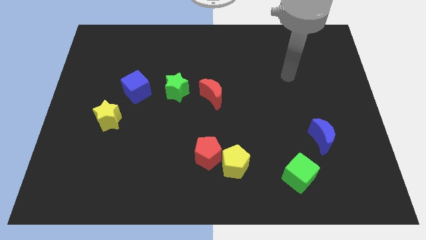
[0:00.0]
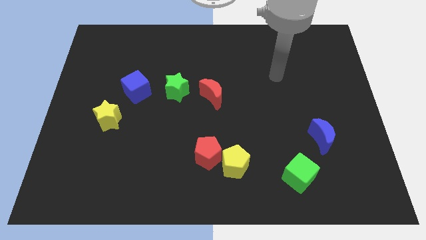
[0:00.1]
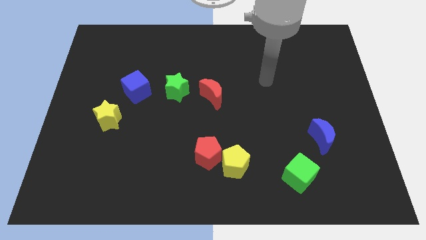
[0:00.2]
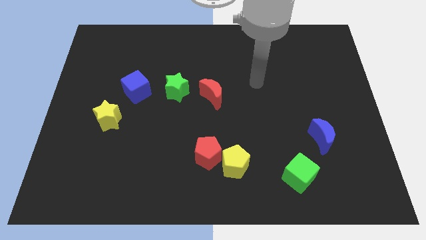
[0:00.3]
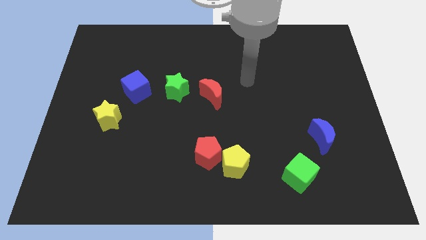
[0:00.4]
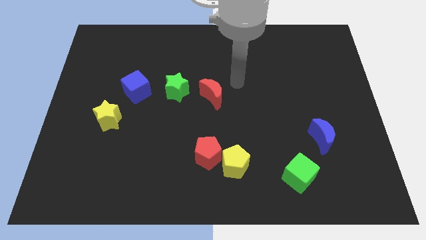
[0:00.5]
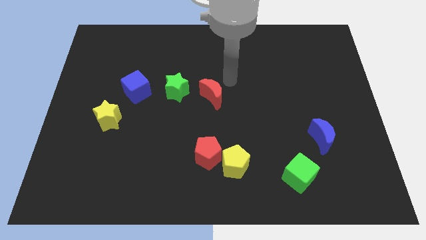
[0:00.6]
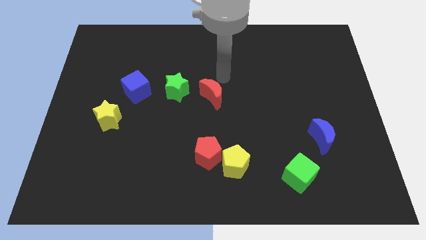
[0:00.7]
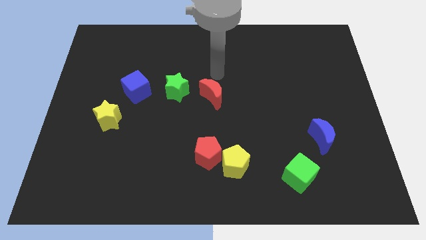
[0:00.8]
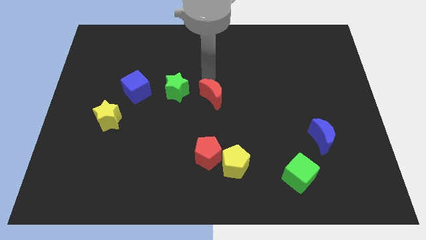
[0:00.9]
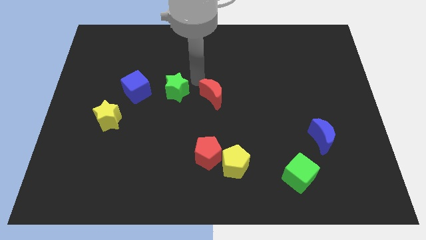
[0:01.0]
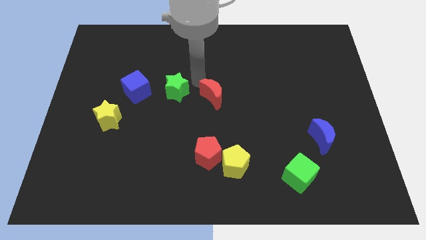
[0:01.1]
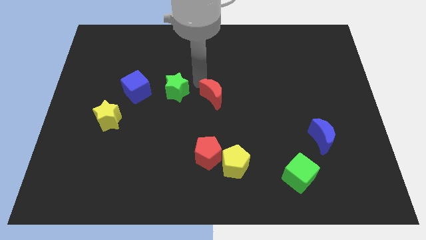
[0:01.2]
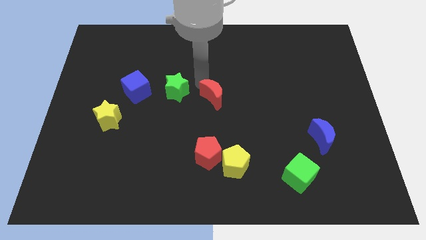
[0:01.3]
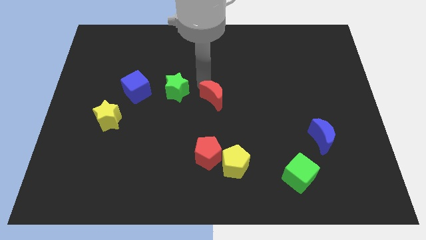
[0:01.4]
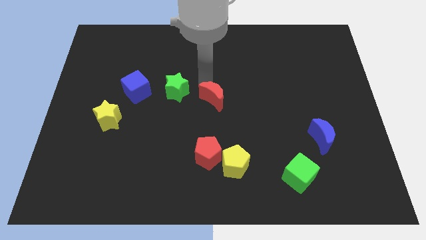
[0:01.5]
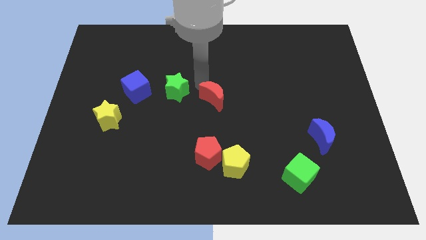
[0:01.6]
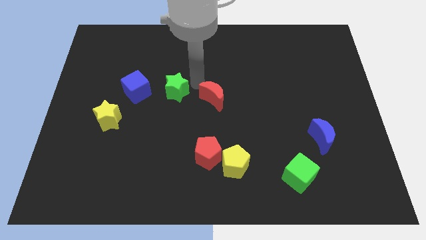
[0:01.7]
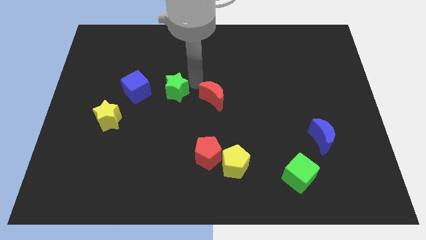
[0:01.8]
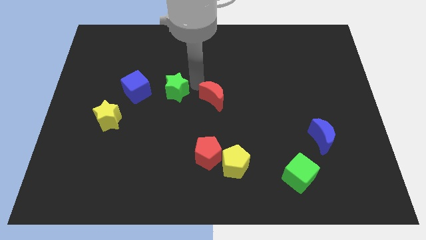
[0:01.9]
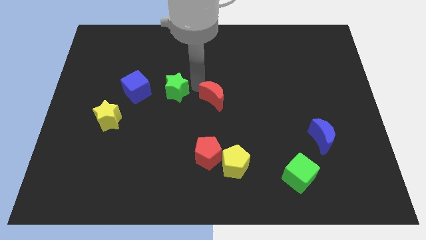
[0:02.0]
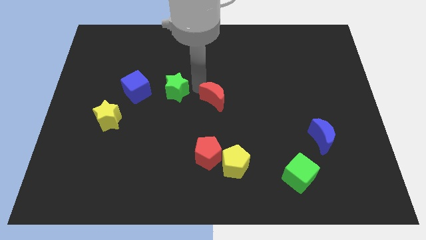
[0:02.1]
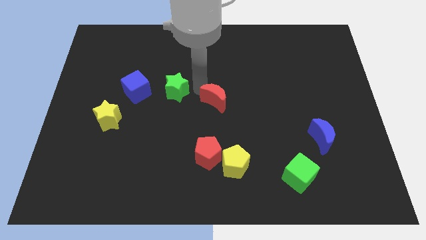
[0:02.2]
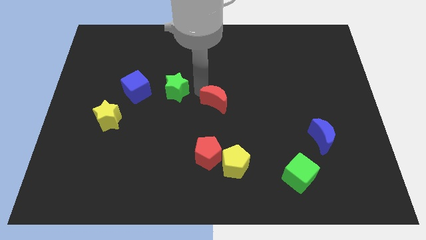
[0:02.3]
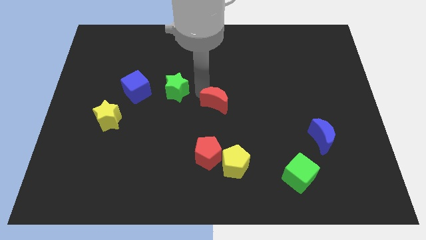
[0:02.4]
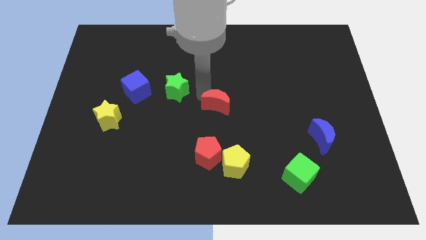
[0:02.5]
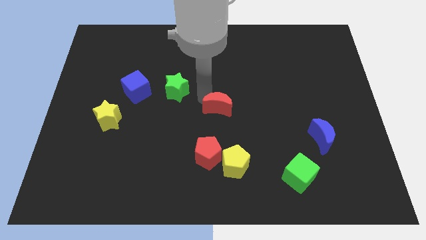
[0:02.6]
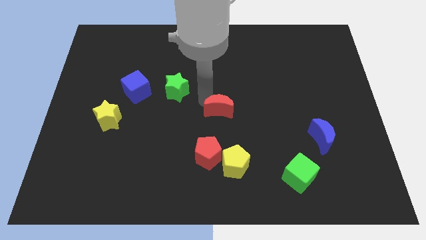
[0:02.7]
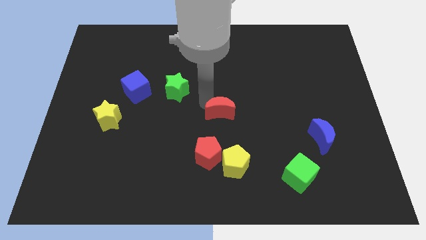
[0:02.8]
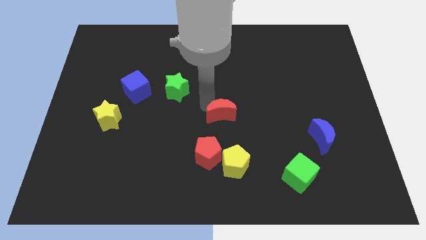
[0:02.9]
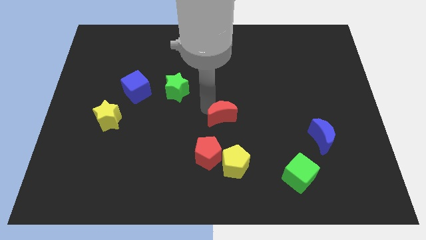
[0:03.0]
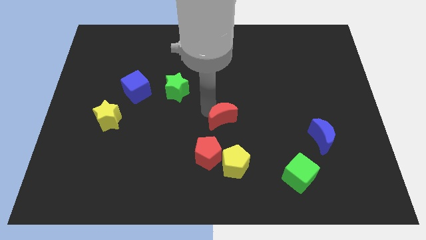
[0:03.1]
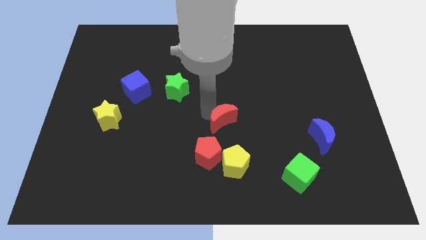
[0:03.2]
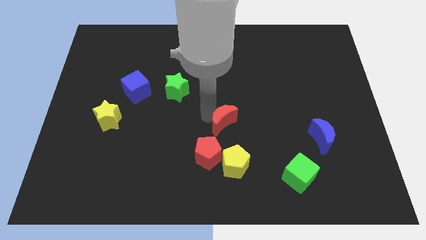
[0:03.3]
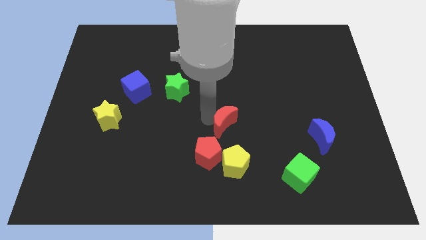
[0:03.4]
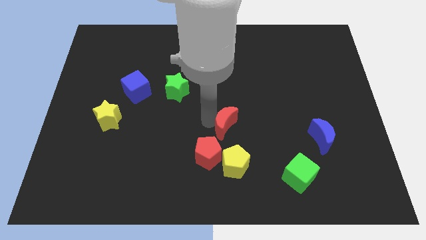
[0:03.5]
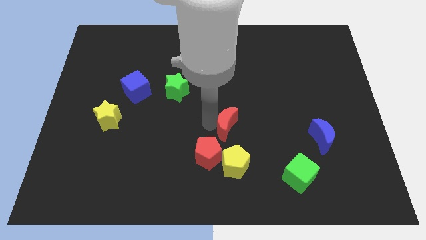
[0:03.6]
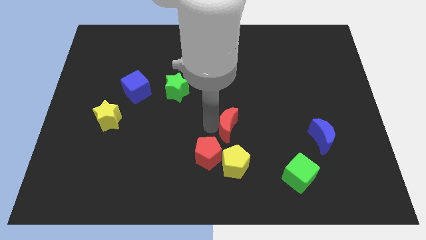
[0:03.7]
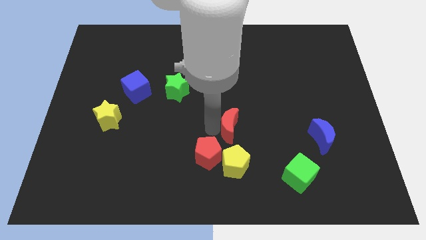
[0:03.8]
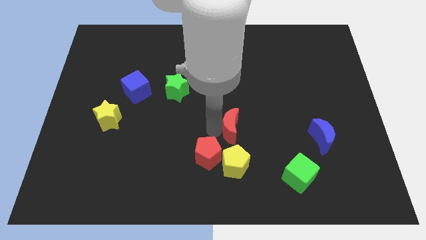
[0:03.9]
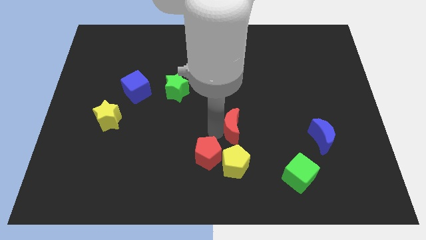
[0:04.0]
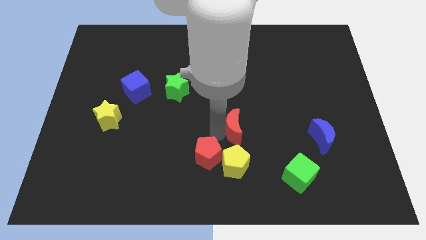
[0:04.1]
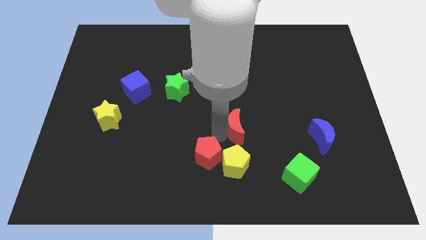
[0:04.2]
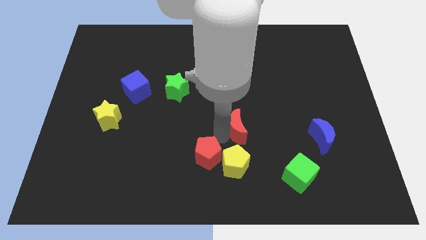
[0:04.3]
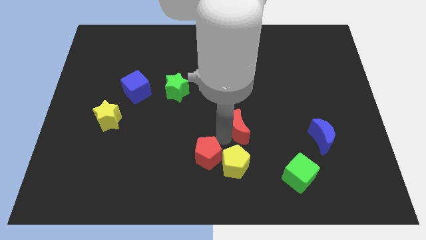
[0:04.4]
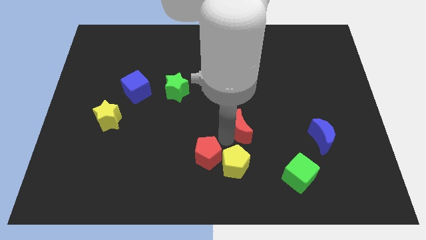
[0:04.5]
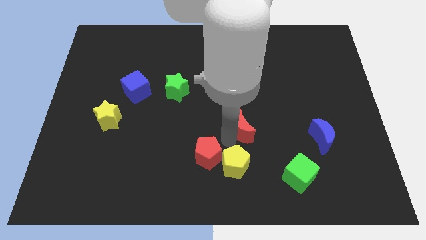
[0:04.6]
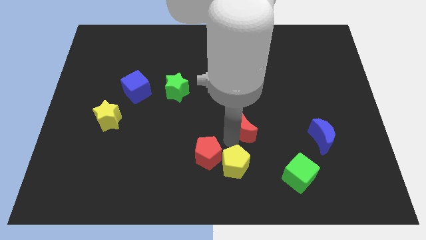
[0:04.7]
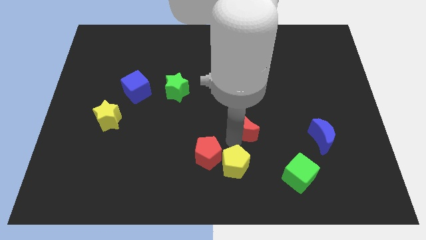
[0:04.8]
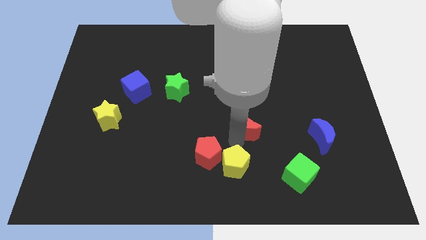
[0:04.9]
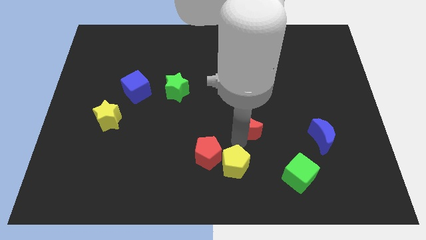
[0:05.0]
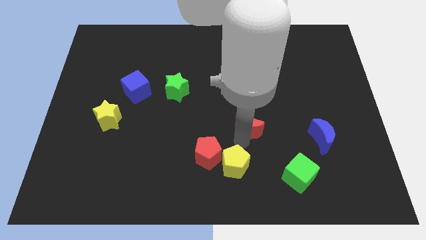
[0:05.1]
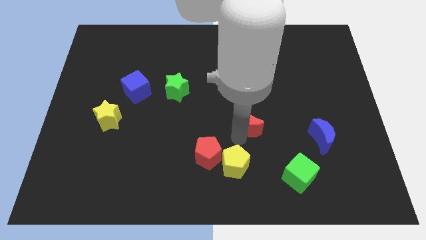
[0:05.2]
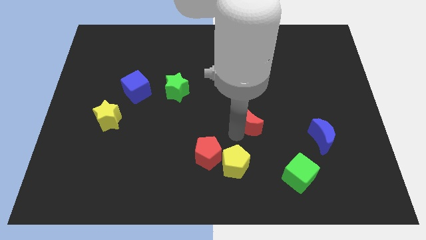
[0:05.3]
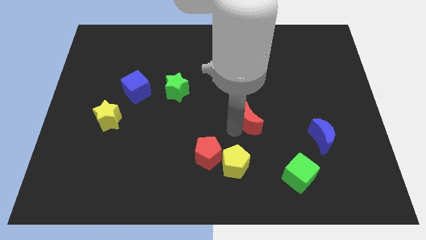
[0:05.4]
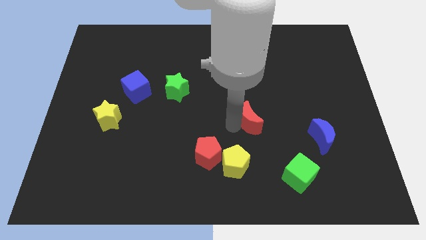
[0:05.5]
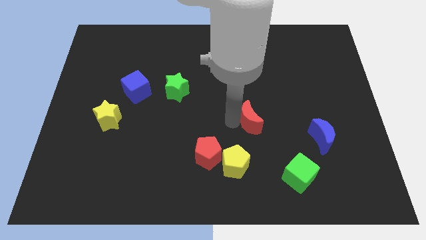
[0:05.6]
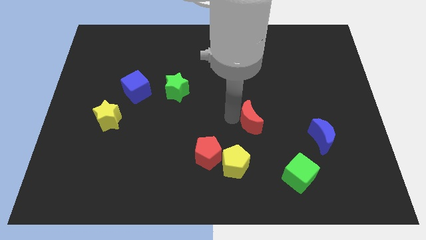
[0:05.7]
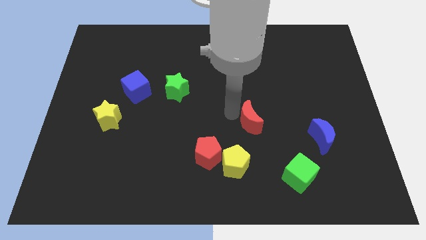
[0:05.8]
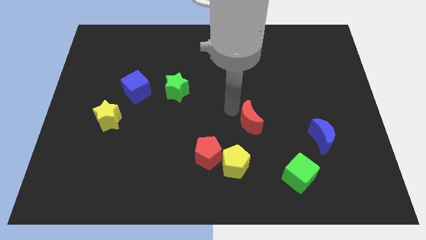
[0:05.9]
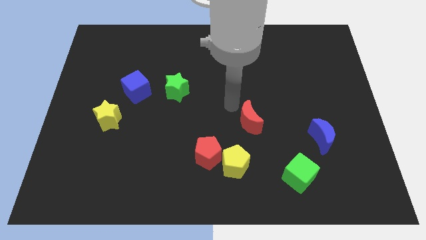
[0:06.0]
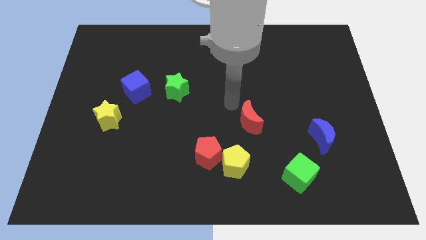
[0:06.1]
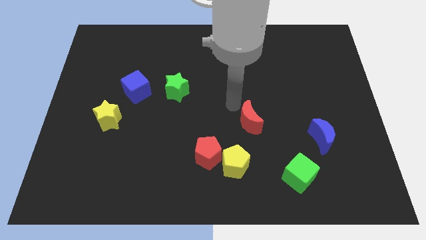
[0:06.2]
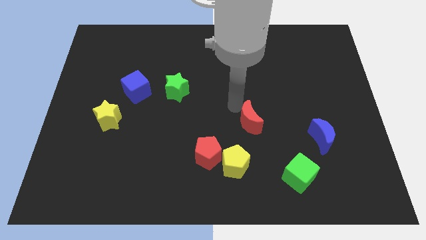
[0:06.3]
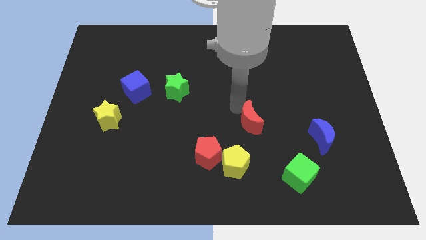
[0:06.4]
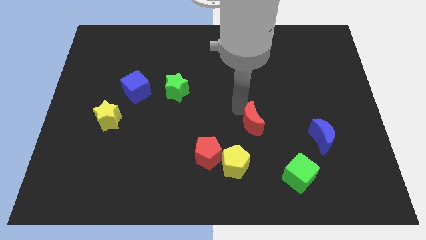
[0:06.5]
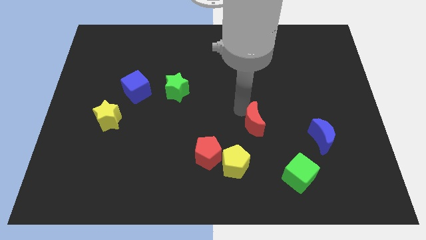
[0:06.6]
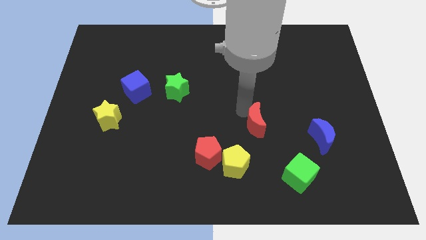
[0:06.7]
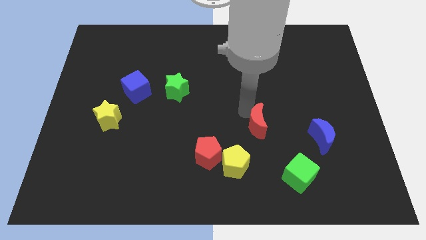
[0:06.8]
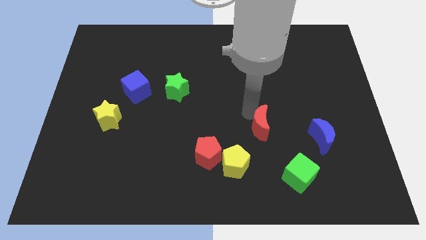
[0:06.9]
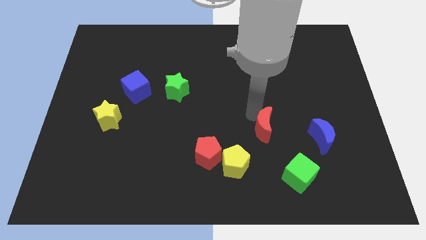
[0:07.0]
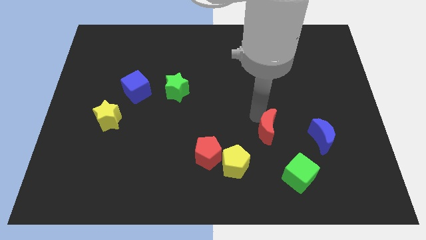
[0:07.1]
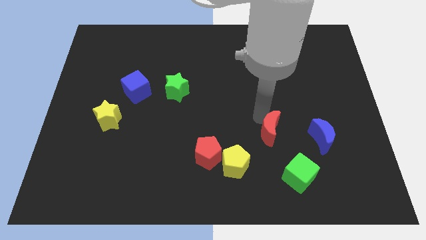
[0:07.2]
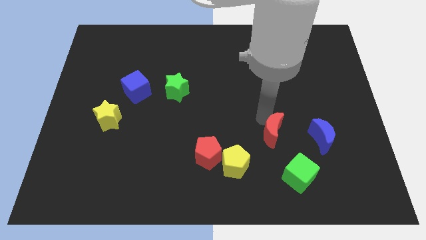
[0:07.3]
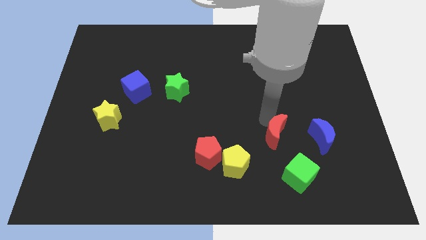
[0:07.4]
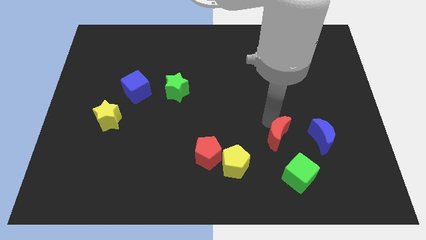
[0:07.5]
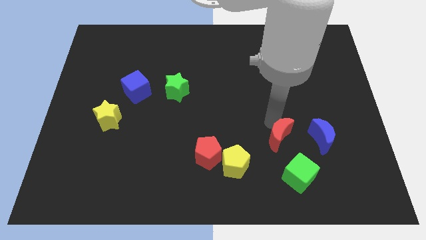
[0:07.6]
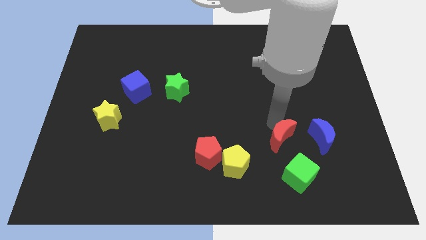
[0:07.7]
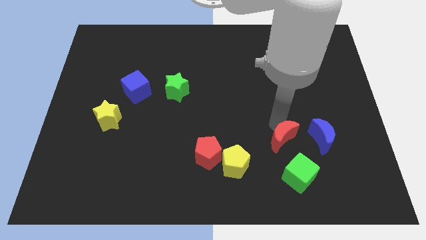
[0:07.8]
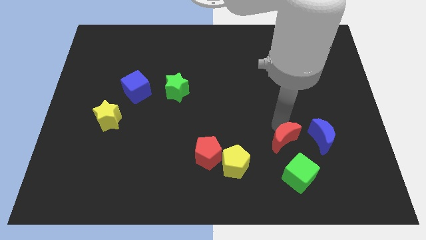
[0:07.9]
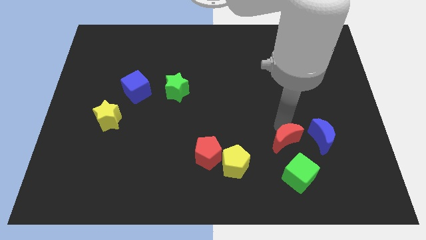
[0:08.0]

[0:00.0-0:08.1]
slide the red moon downwards and right diagonally

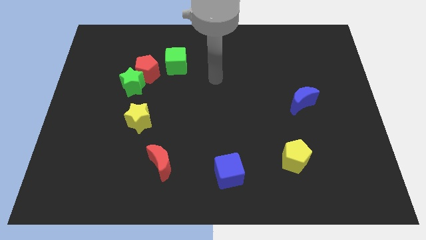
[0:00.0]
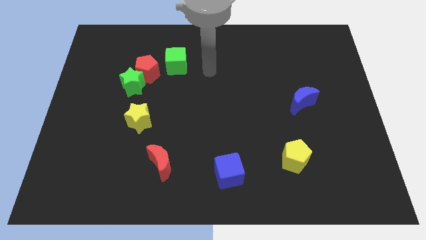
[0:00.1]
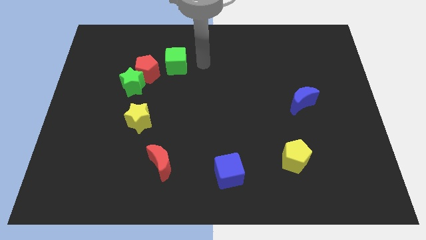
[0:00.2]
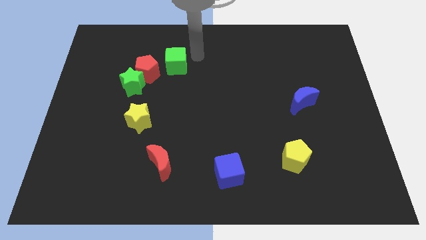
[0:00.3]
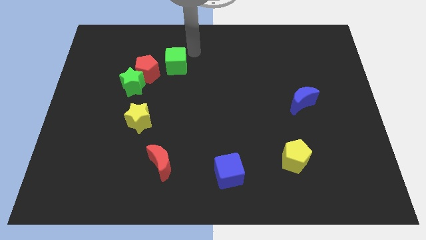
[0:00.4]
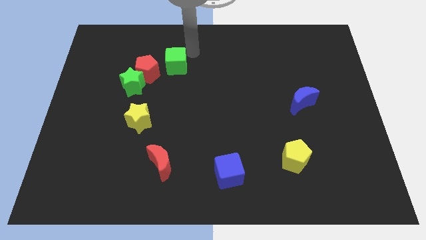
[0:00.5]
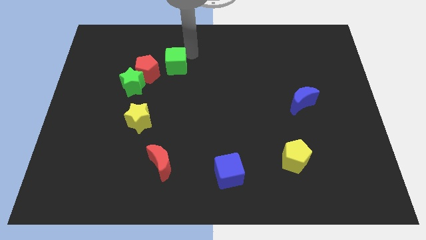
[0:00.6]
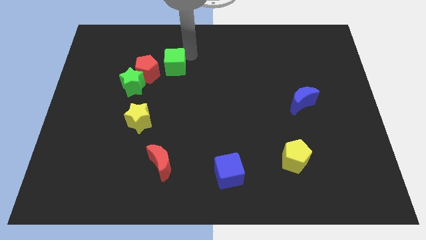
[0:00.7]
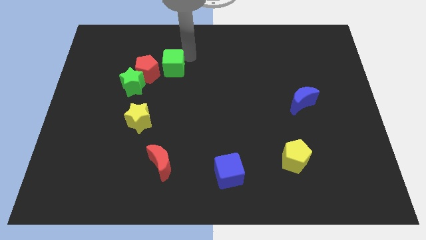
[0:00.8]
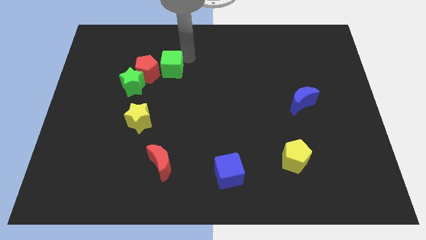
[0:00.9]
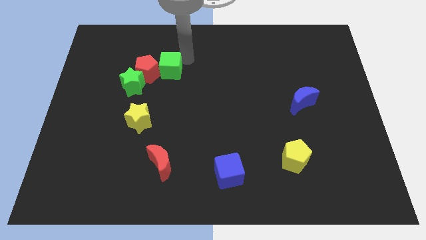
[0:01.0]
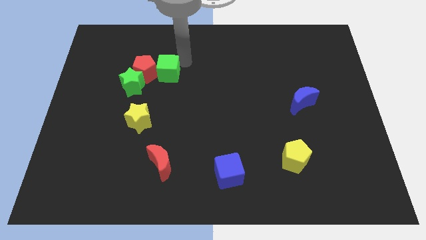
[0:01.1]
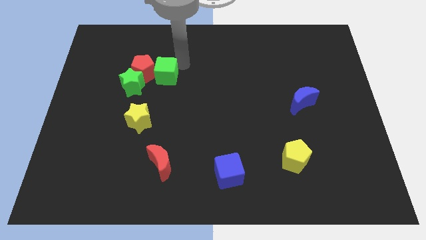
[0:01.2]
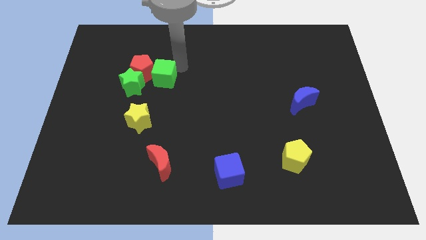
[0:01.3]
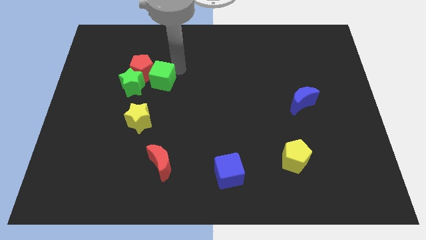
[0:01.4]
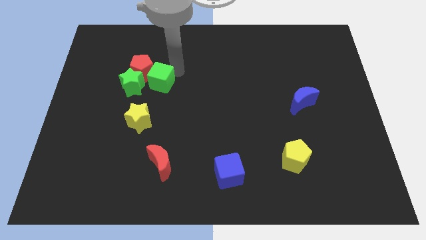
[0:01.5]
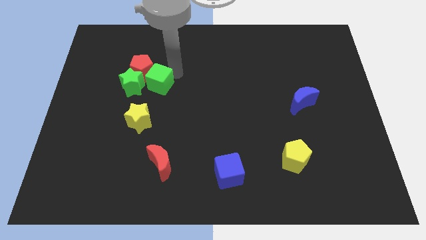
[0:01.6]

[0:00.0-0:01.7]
slide the green cube a little bit downwards and to the left diagonally
